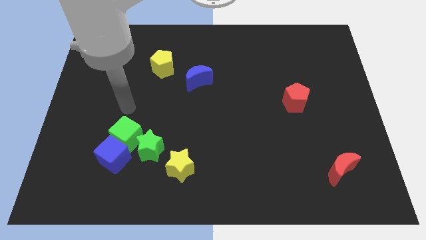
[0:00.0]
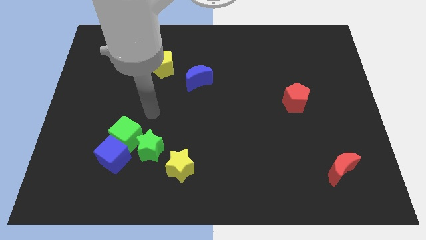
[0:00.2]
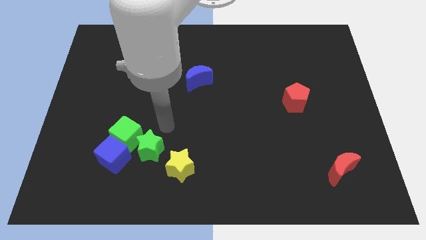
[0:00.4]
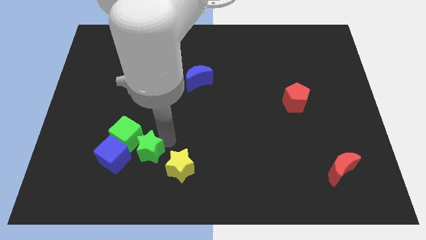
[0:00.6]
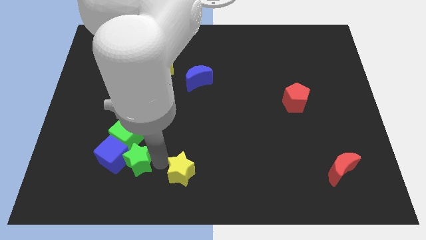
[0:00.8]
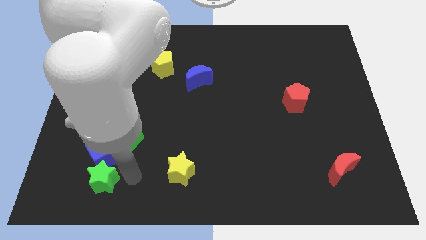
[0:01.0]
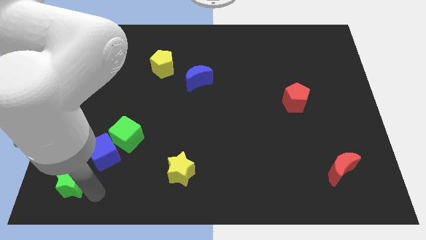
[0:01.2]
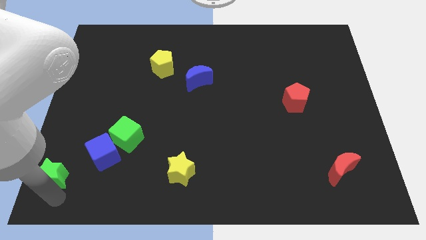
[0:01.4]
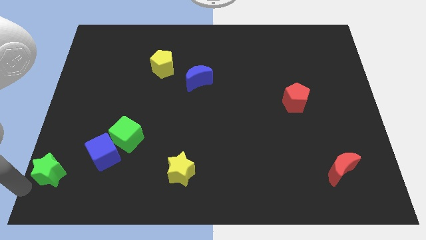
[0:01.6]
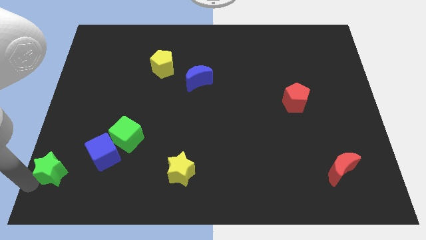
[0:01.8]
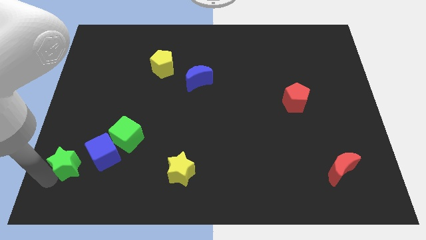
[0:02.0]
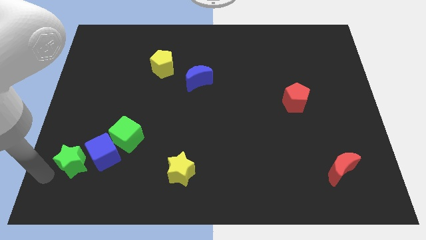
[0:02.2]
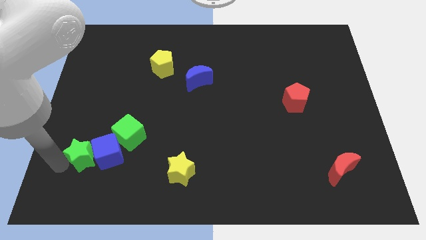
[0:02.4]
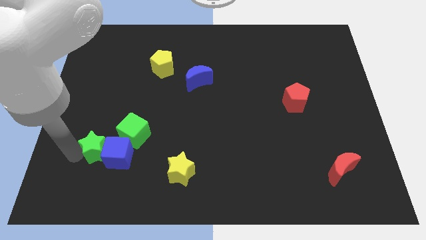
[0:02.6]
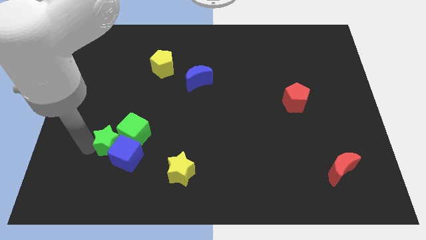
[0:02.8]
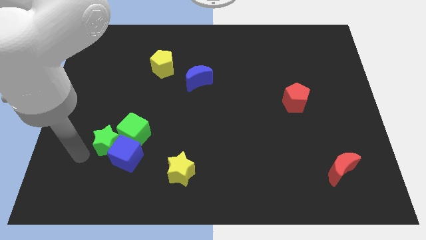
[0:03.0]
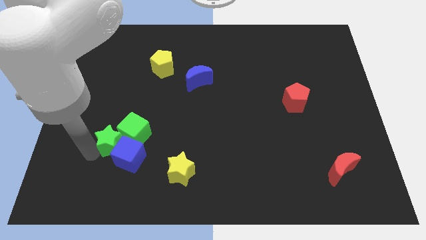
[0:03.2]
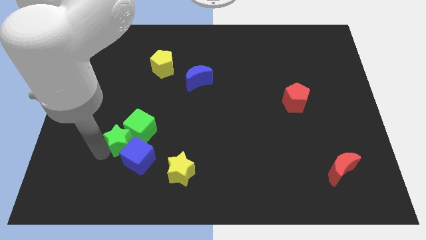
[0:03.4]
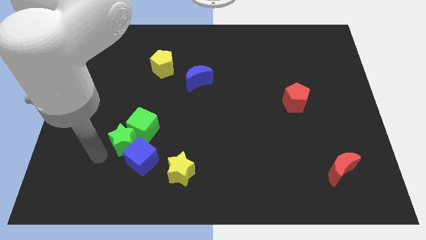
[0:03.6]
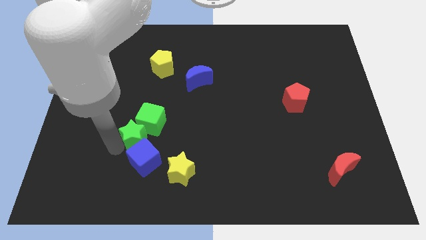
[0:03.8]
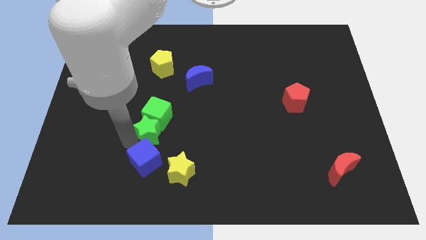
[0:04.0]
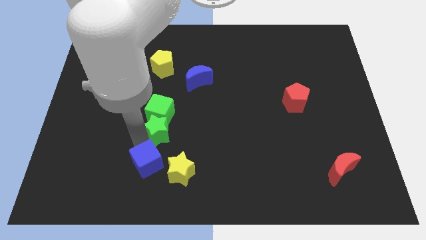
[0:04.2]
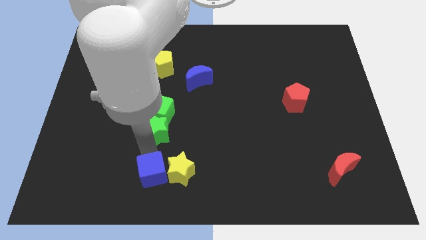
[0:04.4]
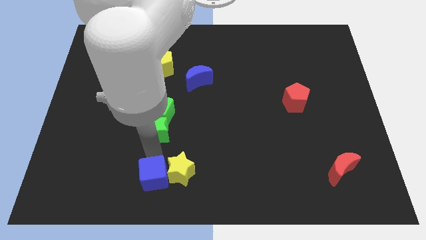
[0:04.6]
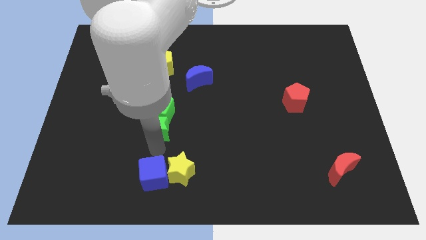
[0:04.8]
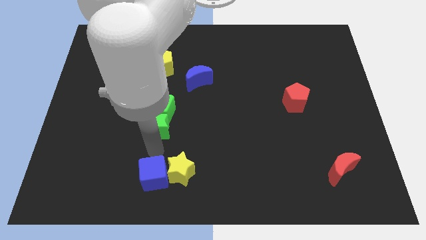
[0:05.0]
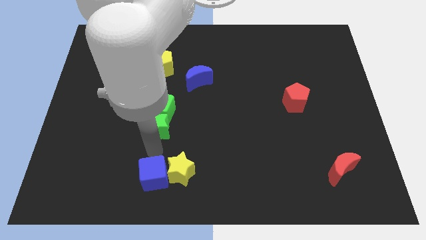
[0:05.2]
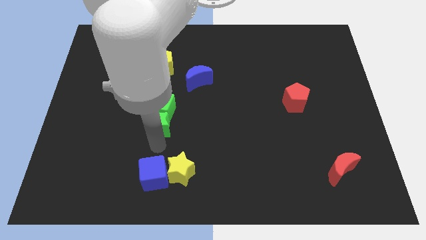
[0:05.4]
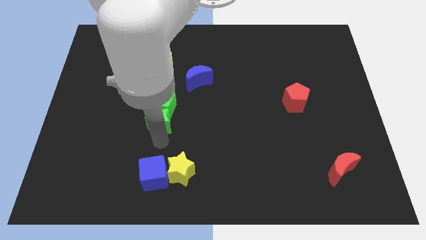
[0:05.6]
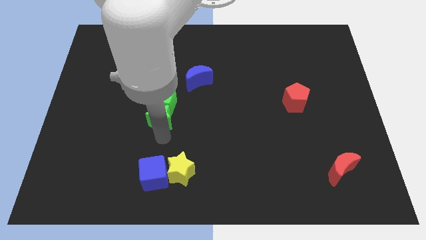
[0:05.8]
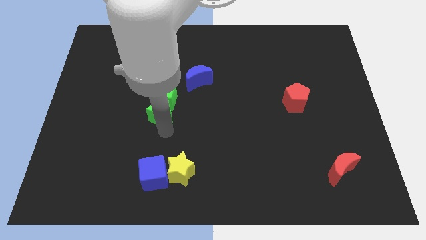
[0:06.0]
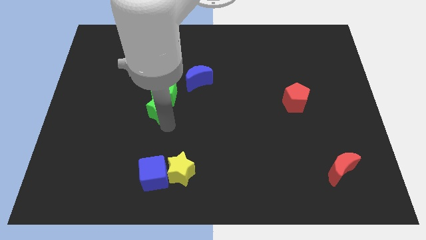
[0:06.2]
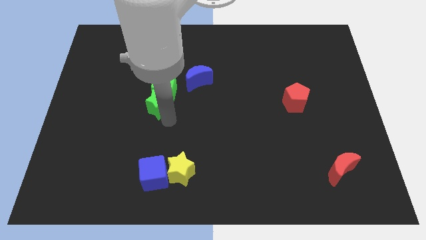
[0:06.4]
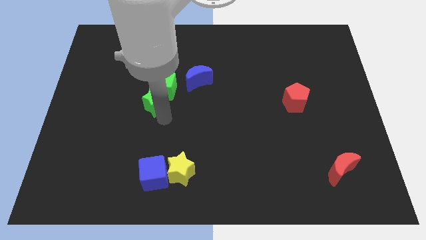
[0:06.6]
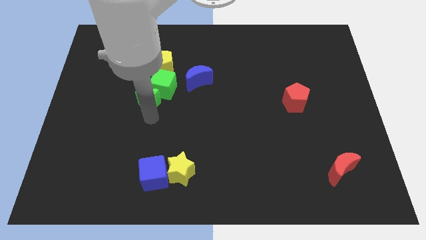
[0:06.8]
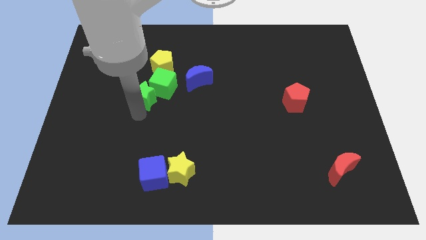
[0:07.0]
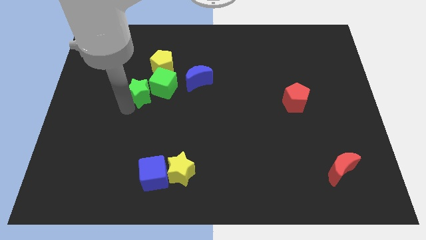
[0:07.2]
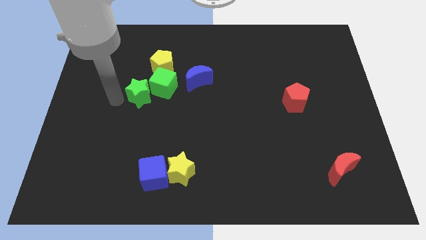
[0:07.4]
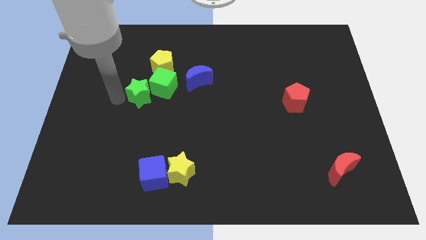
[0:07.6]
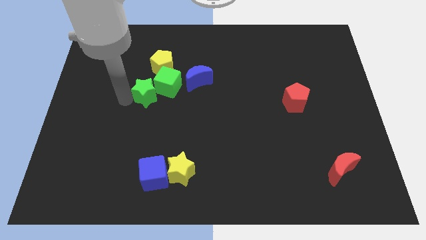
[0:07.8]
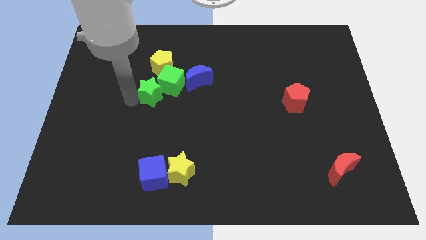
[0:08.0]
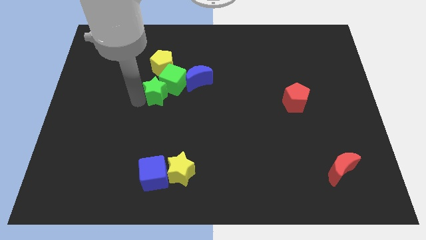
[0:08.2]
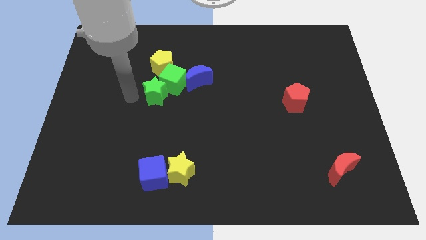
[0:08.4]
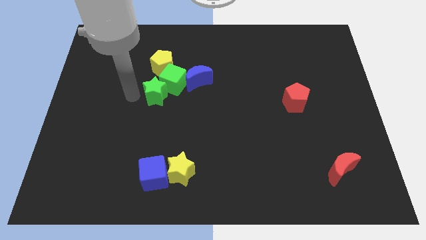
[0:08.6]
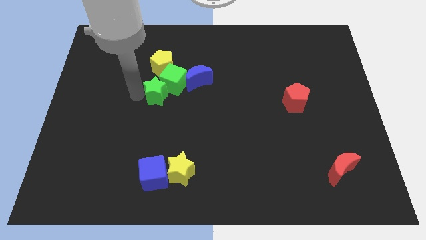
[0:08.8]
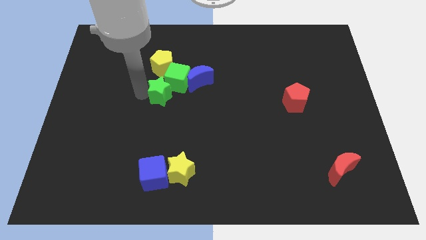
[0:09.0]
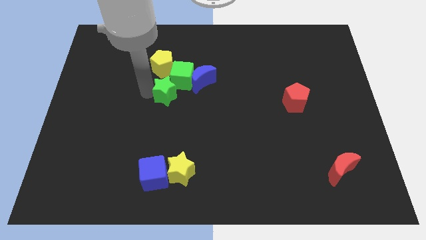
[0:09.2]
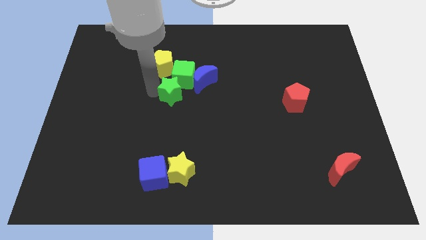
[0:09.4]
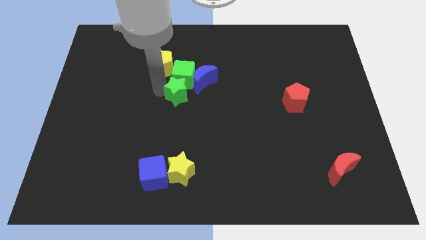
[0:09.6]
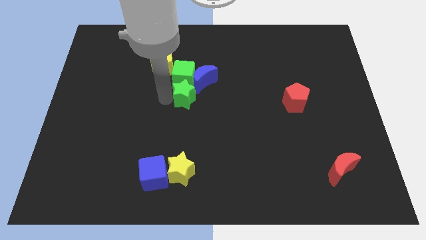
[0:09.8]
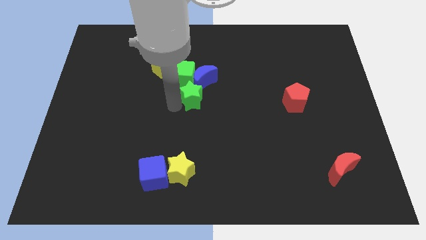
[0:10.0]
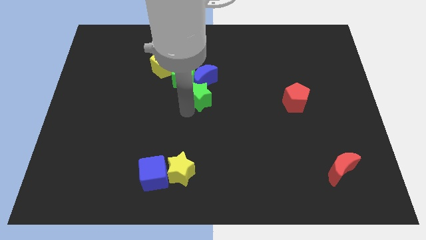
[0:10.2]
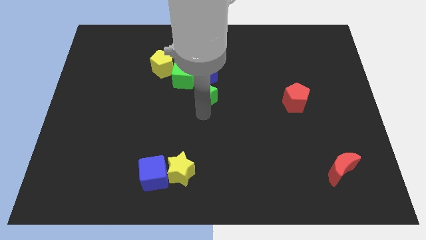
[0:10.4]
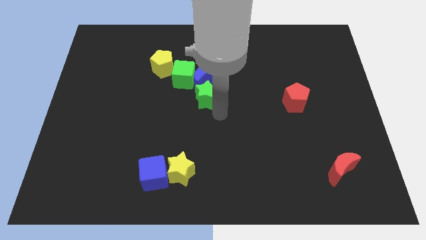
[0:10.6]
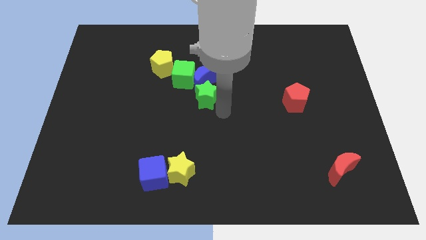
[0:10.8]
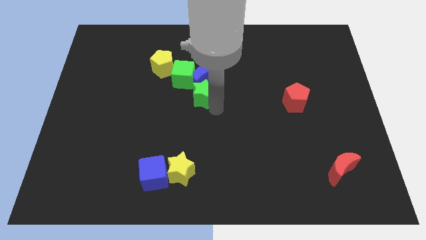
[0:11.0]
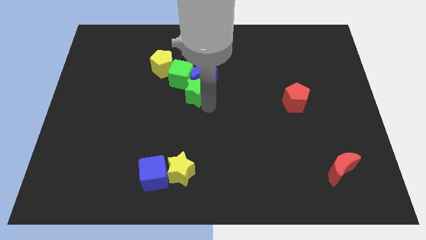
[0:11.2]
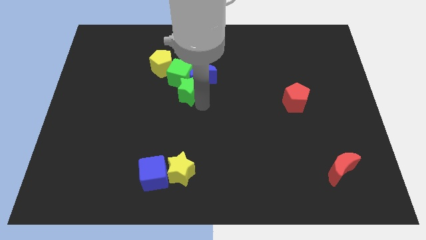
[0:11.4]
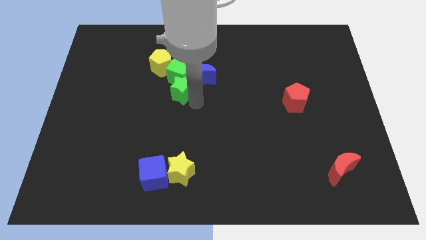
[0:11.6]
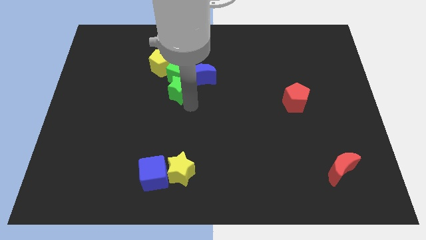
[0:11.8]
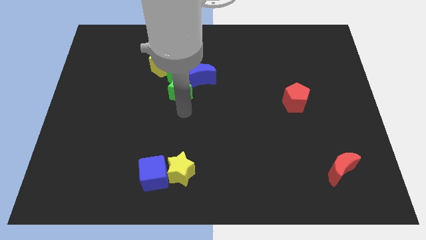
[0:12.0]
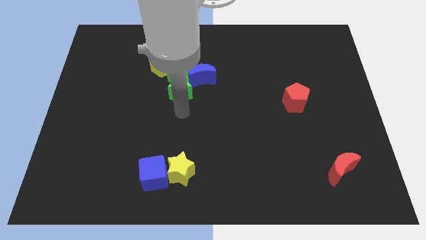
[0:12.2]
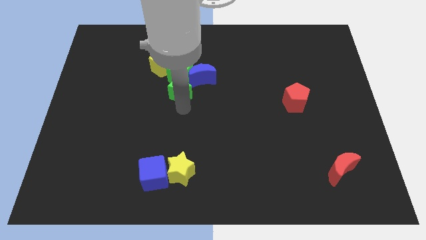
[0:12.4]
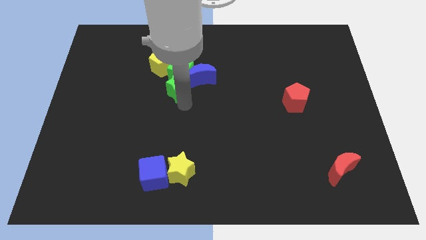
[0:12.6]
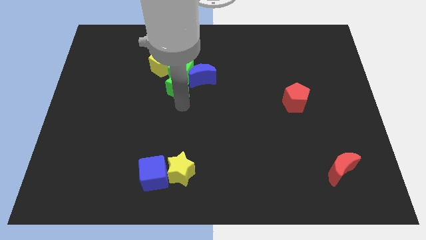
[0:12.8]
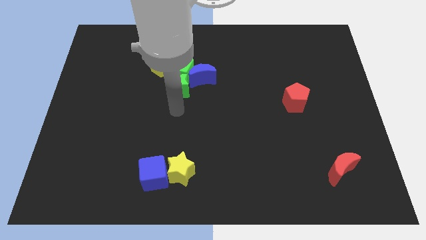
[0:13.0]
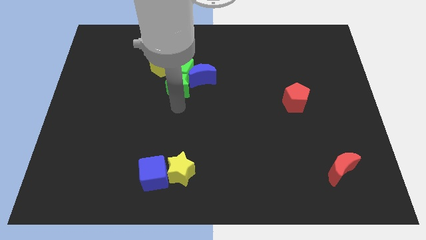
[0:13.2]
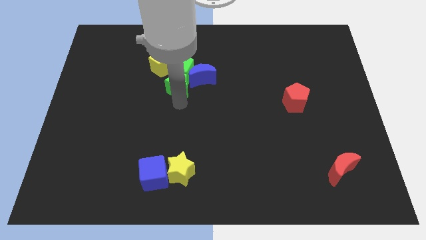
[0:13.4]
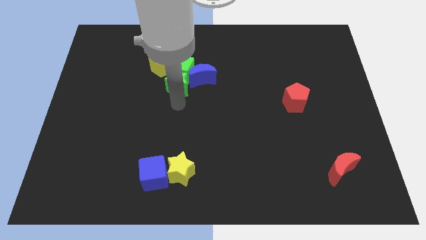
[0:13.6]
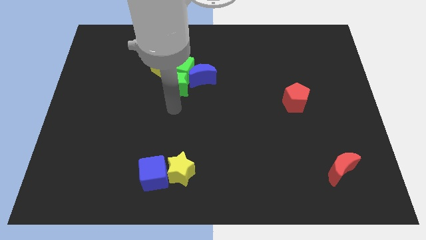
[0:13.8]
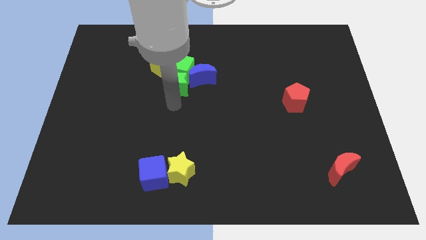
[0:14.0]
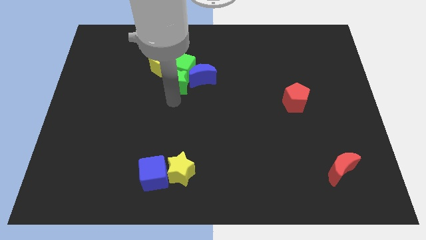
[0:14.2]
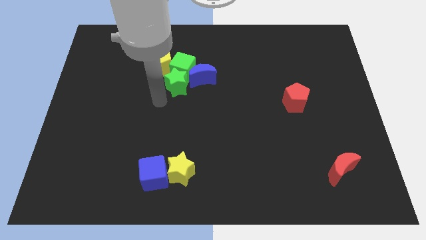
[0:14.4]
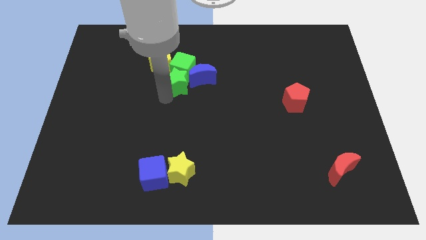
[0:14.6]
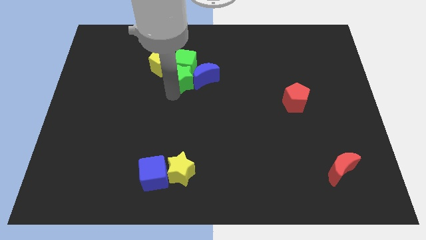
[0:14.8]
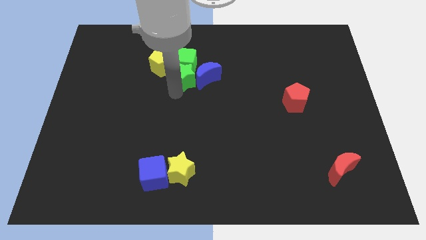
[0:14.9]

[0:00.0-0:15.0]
put the green star to the right of the yellow pentagon
